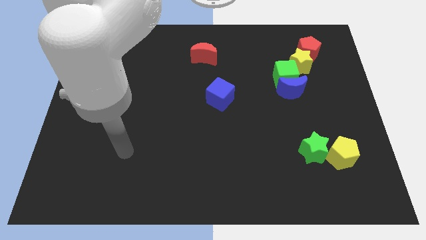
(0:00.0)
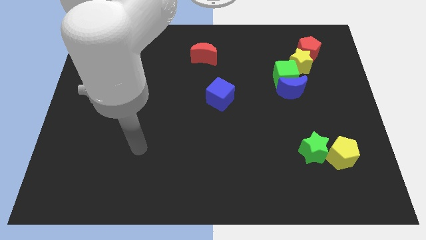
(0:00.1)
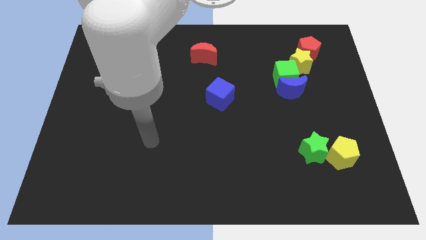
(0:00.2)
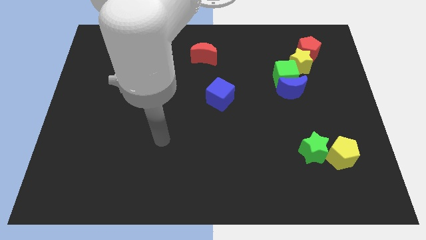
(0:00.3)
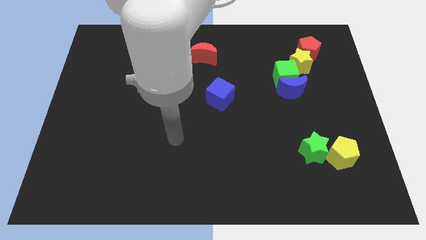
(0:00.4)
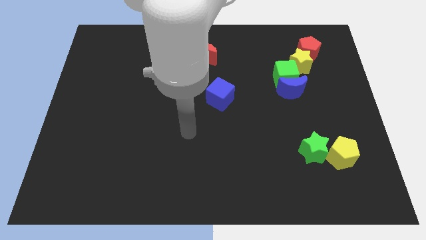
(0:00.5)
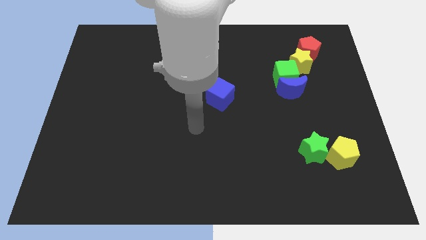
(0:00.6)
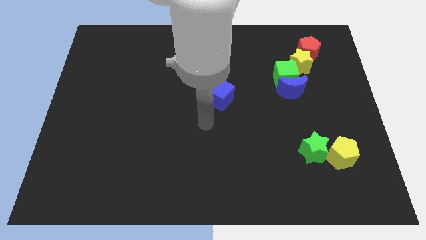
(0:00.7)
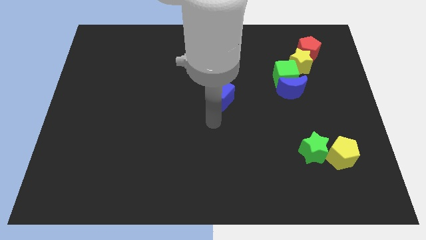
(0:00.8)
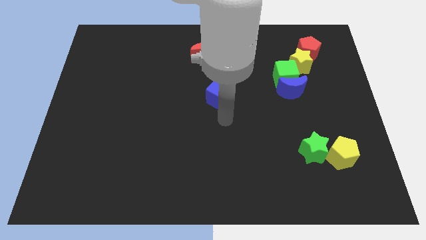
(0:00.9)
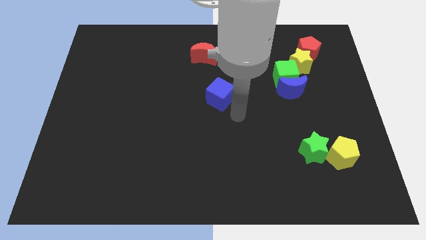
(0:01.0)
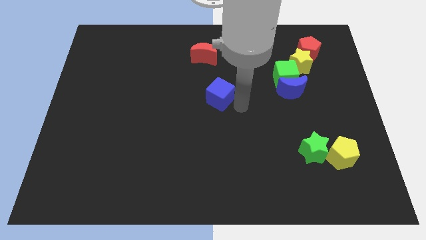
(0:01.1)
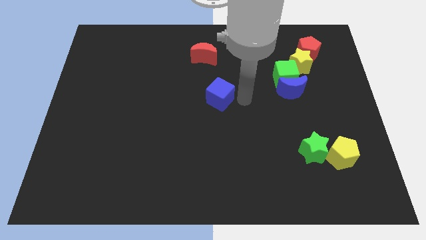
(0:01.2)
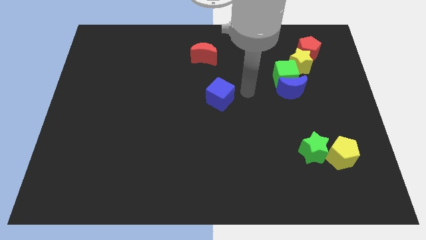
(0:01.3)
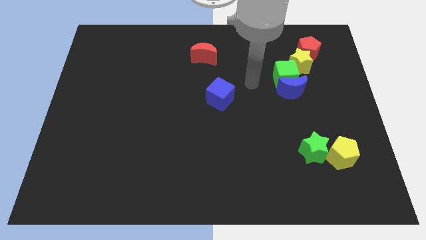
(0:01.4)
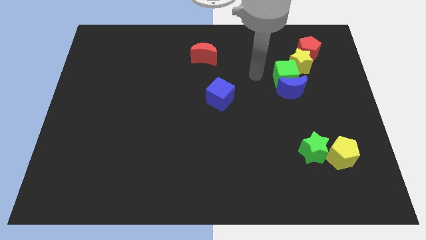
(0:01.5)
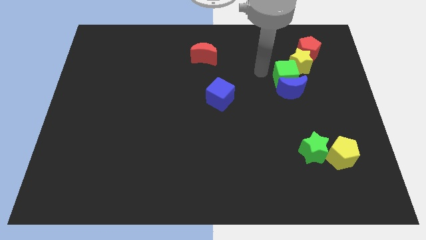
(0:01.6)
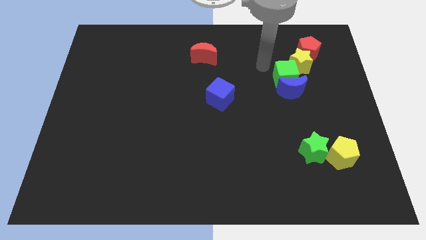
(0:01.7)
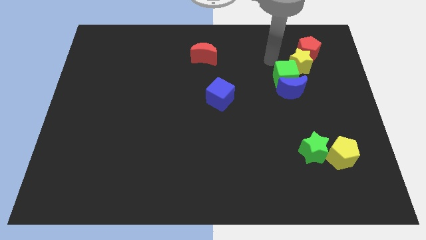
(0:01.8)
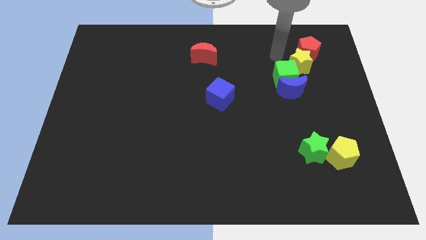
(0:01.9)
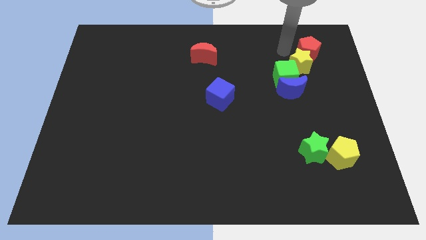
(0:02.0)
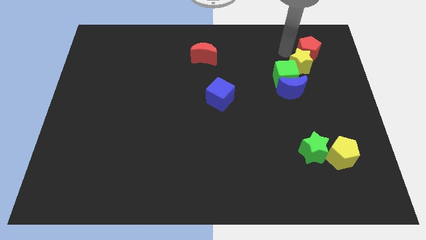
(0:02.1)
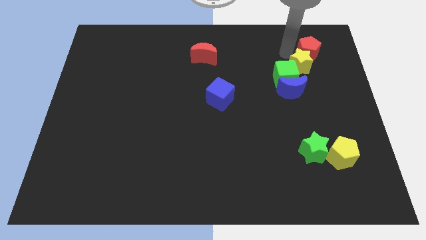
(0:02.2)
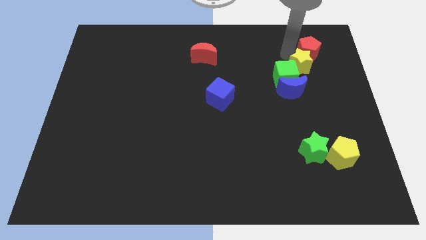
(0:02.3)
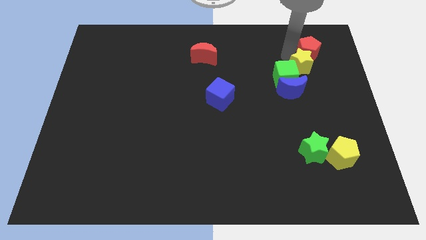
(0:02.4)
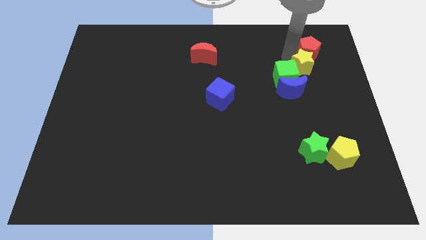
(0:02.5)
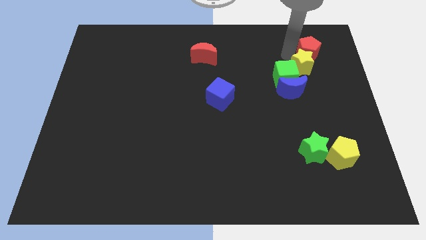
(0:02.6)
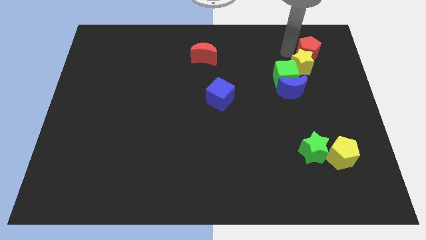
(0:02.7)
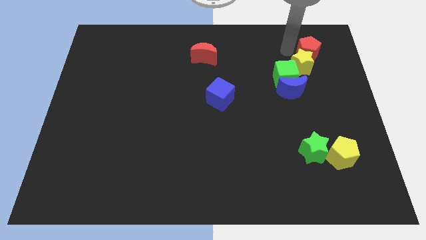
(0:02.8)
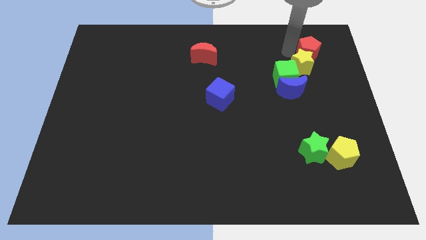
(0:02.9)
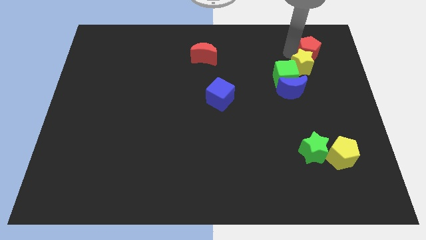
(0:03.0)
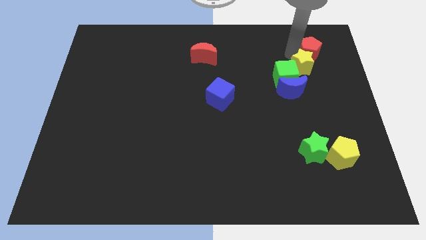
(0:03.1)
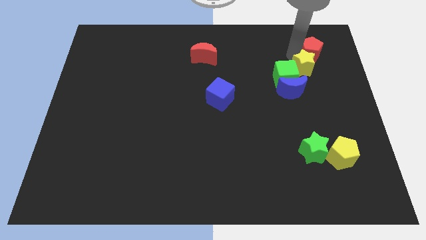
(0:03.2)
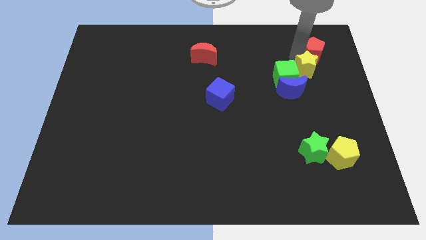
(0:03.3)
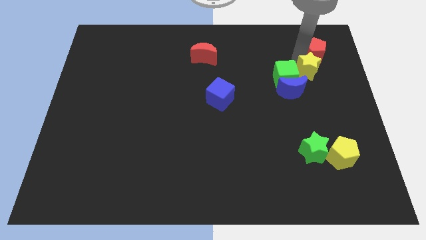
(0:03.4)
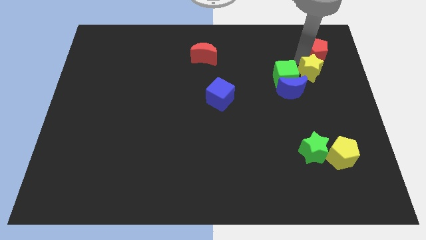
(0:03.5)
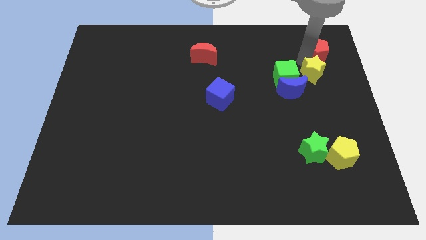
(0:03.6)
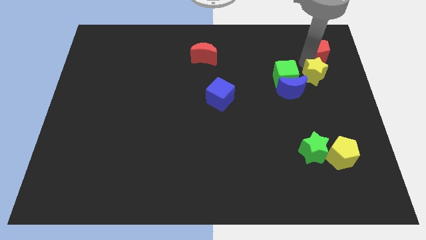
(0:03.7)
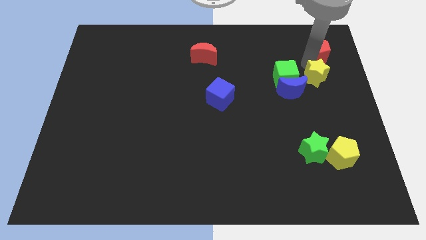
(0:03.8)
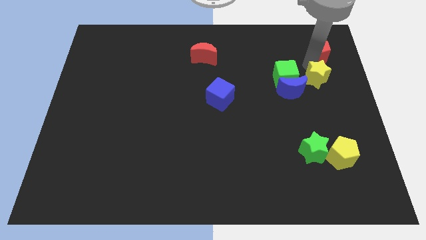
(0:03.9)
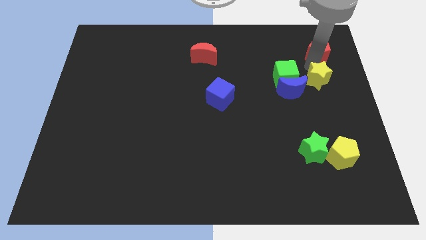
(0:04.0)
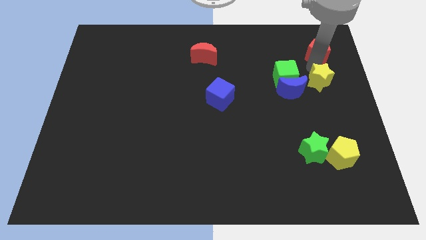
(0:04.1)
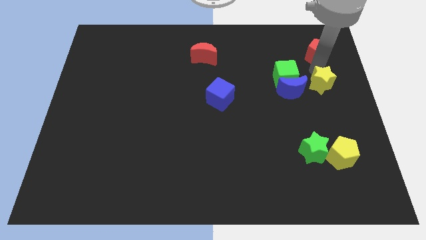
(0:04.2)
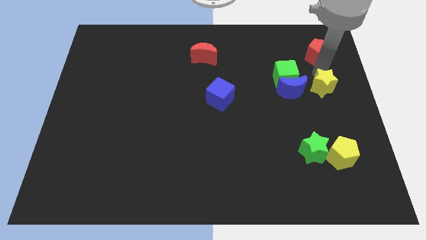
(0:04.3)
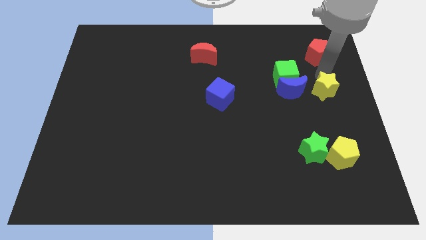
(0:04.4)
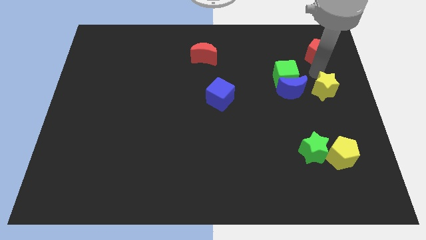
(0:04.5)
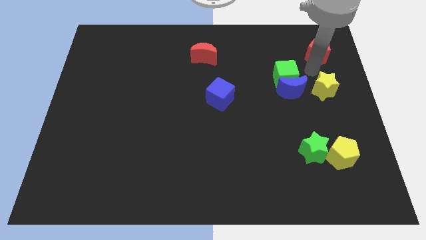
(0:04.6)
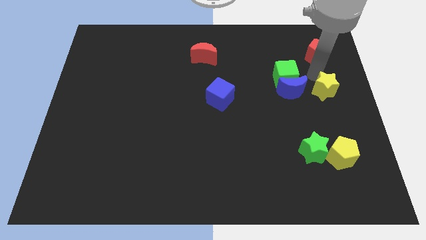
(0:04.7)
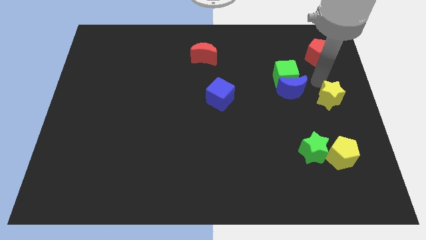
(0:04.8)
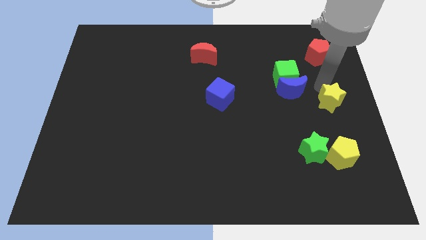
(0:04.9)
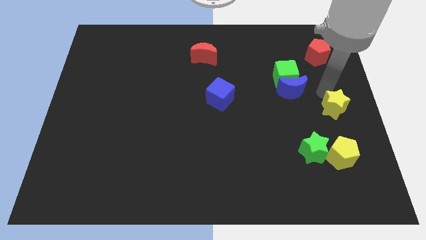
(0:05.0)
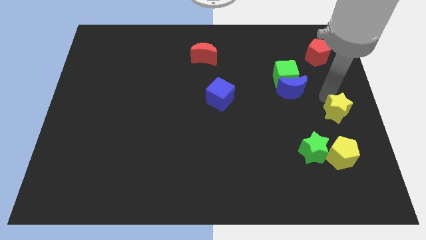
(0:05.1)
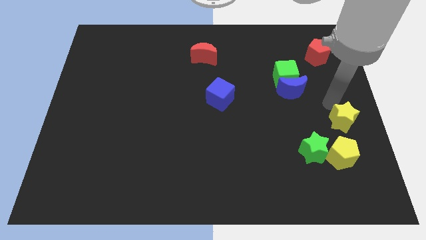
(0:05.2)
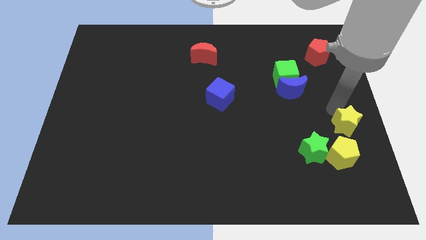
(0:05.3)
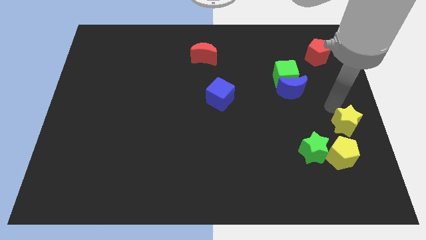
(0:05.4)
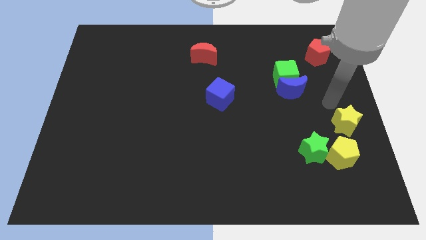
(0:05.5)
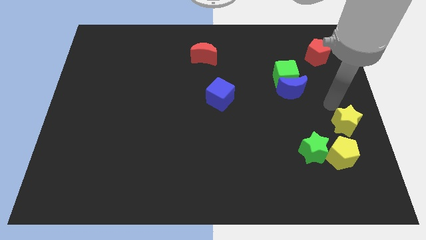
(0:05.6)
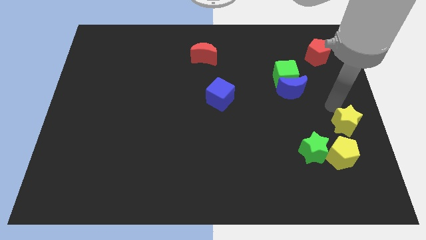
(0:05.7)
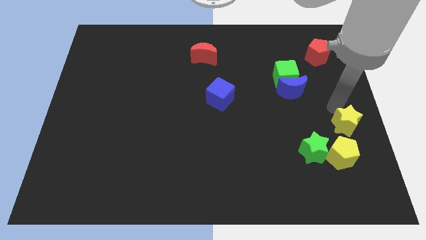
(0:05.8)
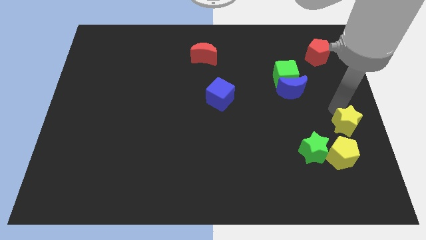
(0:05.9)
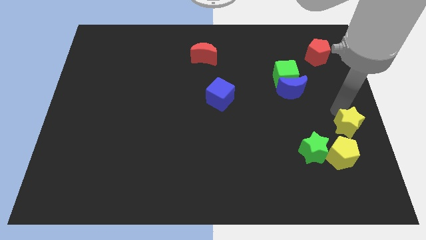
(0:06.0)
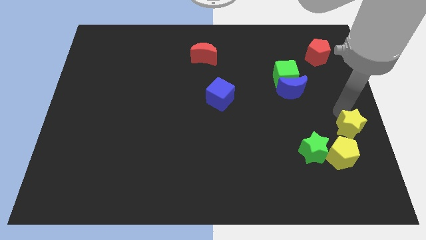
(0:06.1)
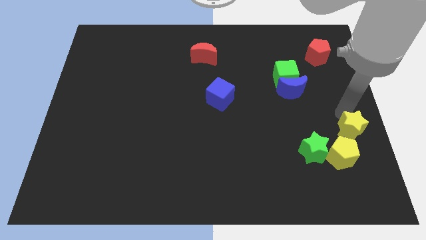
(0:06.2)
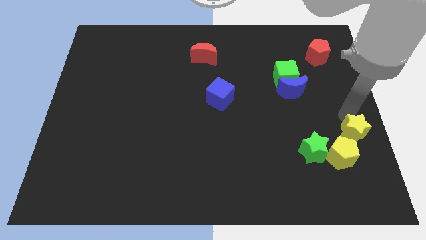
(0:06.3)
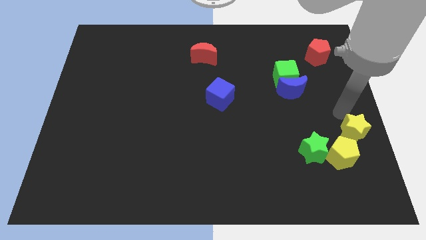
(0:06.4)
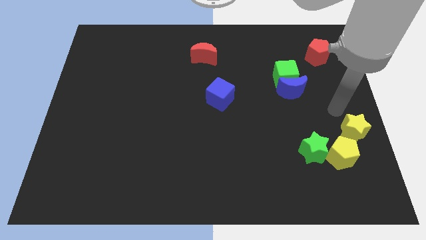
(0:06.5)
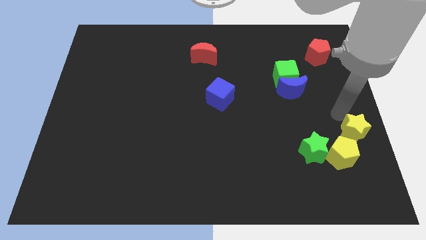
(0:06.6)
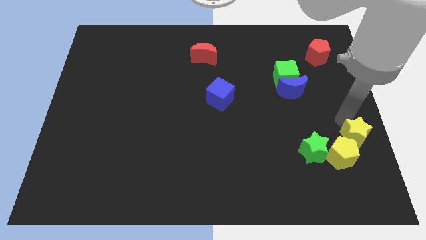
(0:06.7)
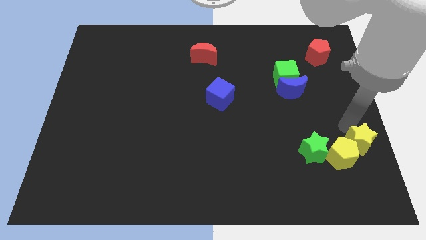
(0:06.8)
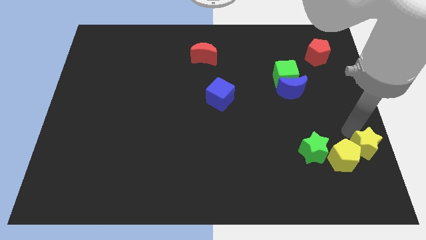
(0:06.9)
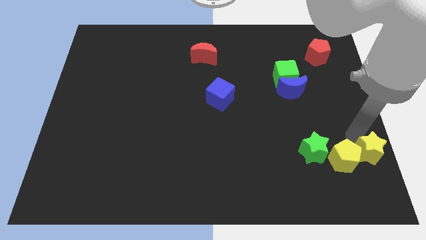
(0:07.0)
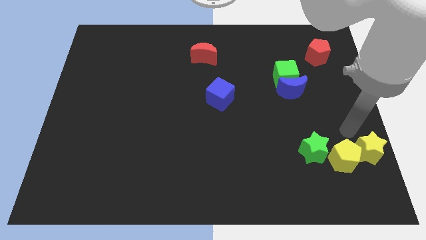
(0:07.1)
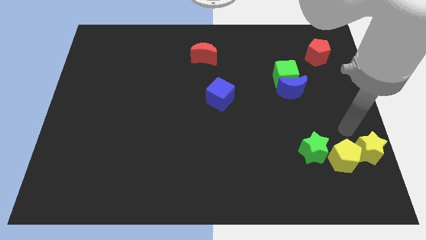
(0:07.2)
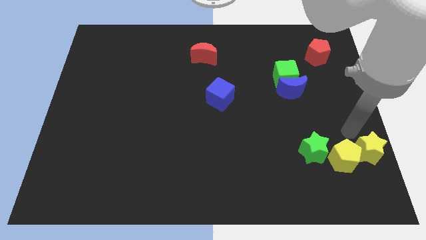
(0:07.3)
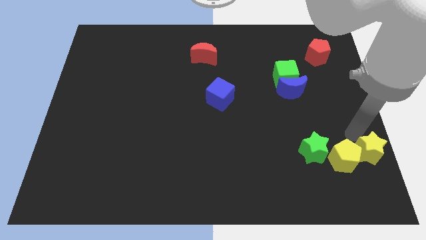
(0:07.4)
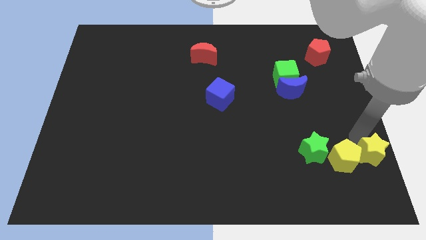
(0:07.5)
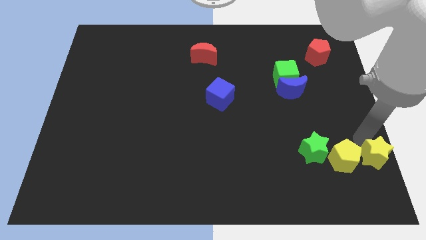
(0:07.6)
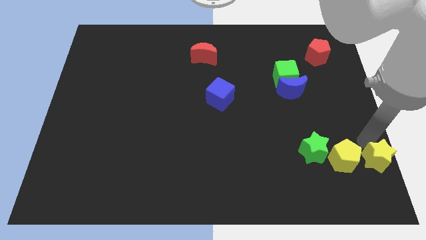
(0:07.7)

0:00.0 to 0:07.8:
slide the yellow star to the bottom right
